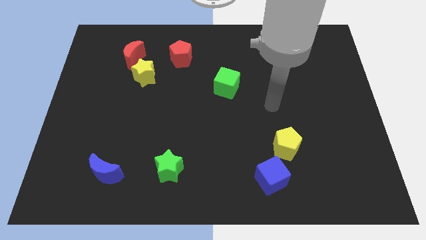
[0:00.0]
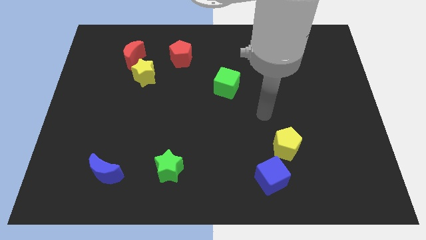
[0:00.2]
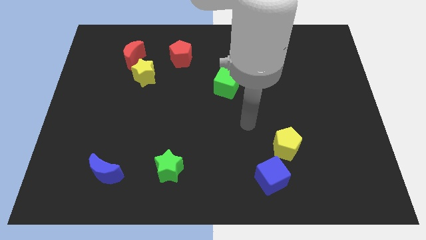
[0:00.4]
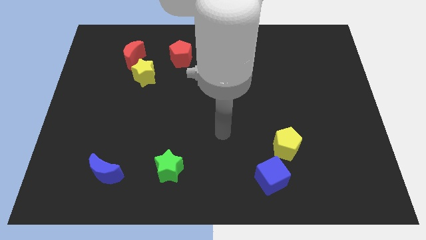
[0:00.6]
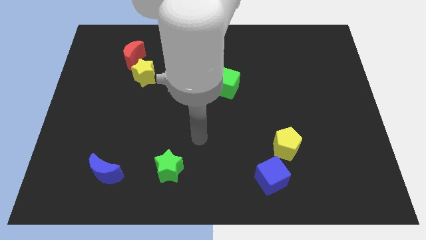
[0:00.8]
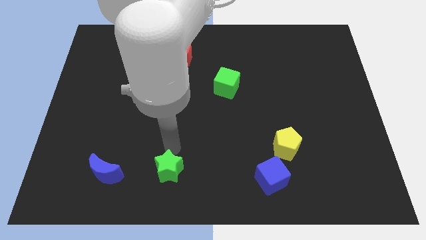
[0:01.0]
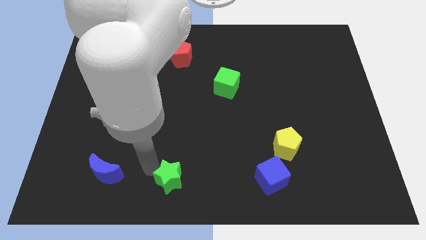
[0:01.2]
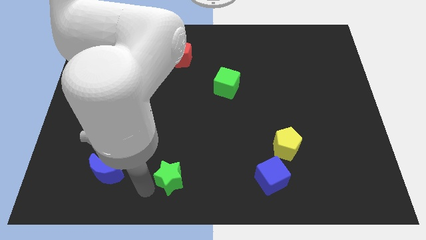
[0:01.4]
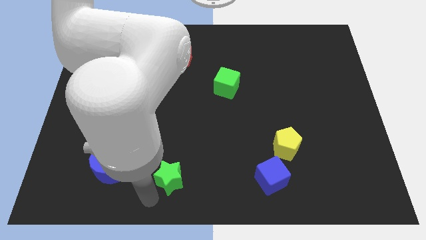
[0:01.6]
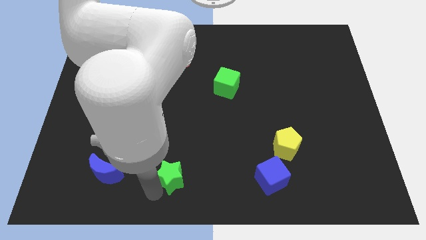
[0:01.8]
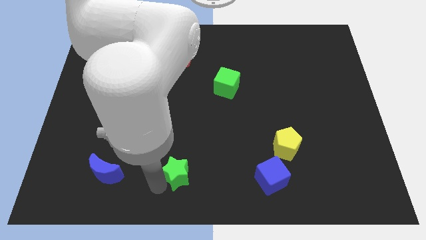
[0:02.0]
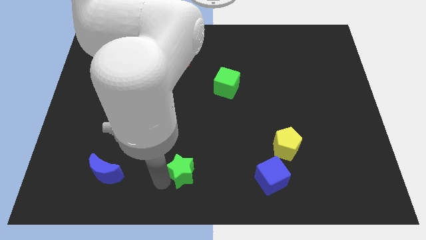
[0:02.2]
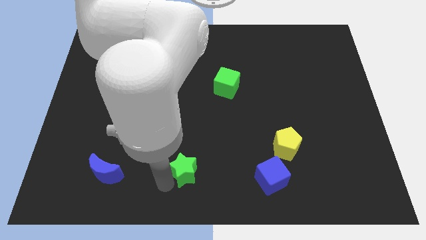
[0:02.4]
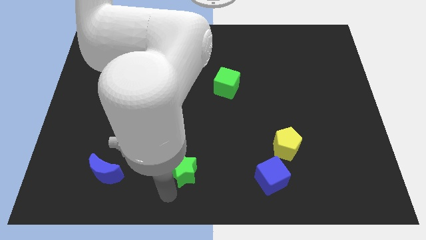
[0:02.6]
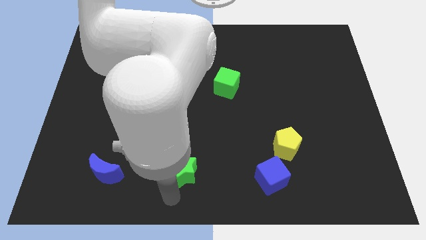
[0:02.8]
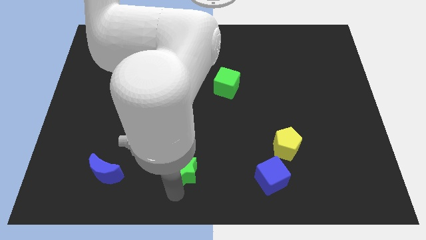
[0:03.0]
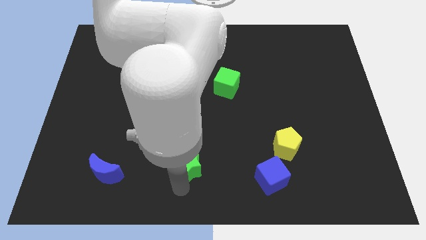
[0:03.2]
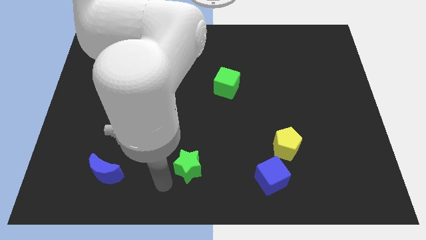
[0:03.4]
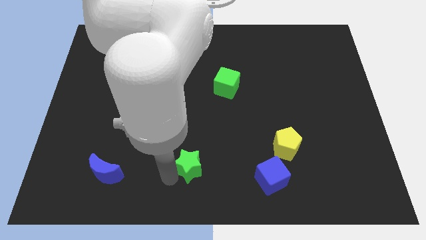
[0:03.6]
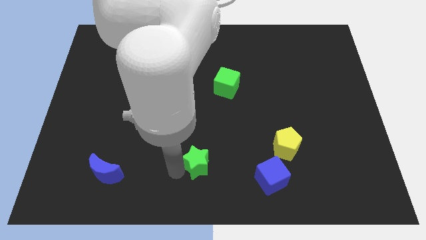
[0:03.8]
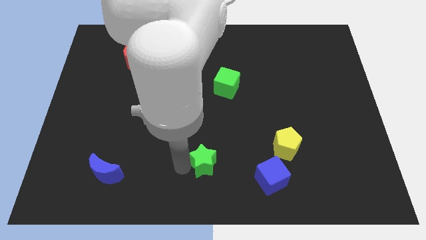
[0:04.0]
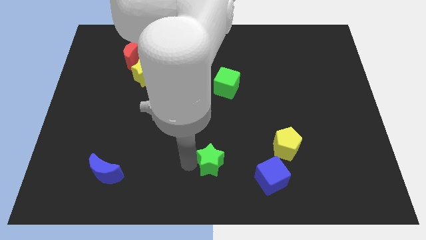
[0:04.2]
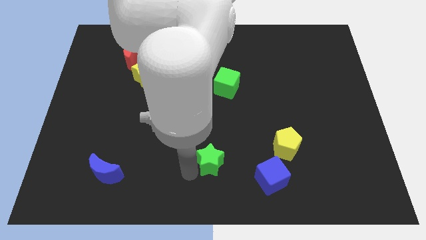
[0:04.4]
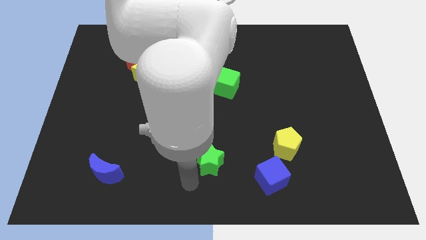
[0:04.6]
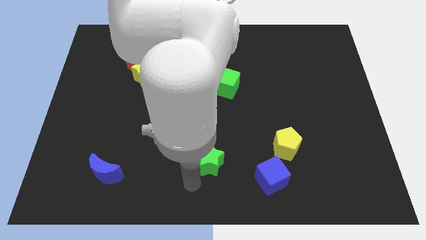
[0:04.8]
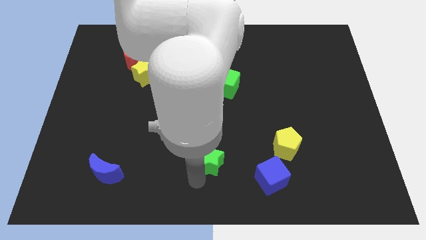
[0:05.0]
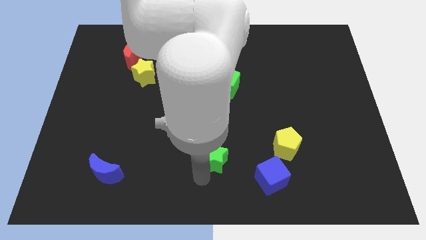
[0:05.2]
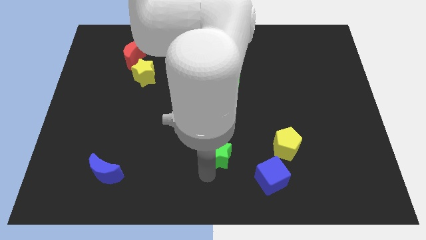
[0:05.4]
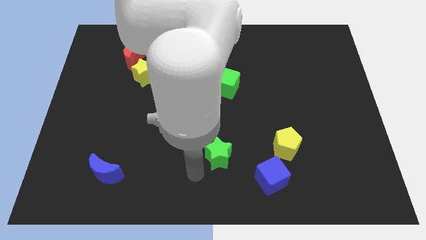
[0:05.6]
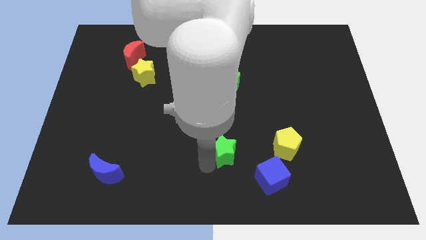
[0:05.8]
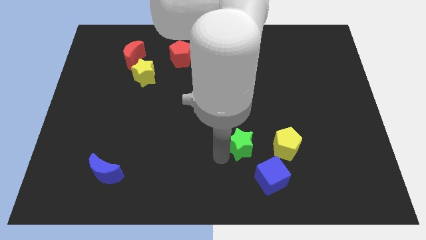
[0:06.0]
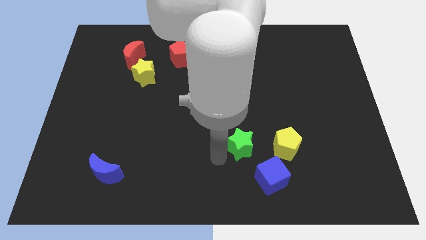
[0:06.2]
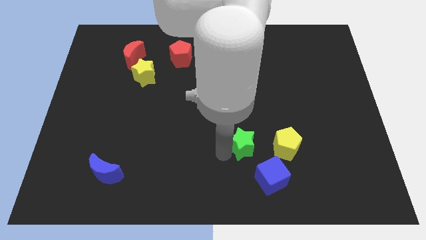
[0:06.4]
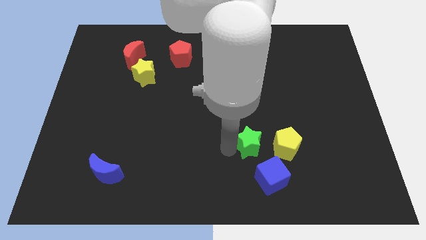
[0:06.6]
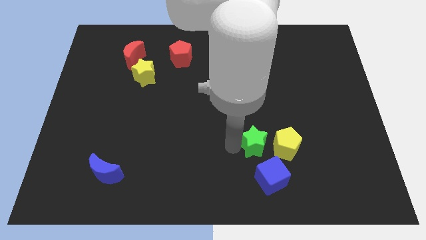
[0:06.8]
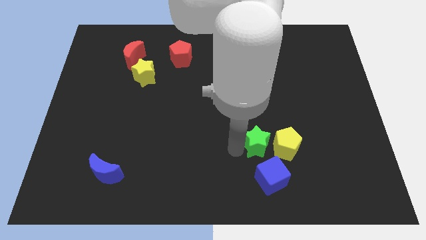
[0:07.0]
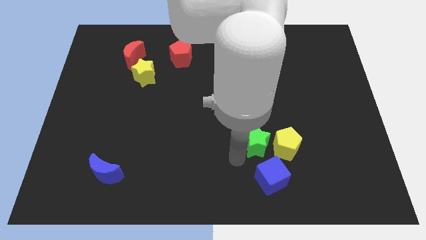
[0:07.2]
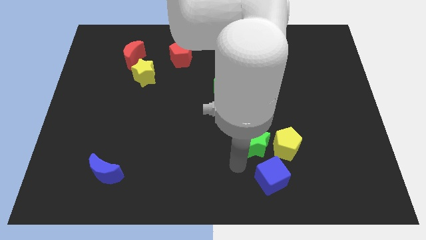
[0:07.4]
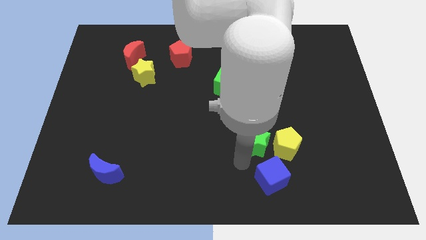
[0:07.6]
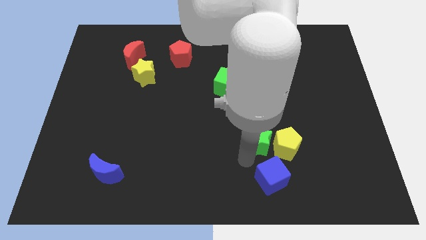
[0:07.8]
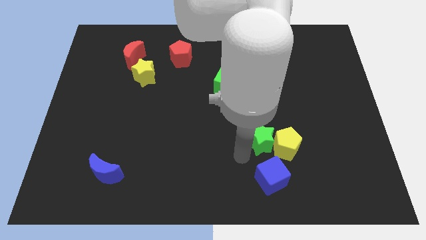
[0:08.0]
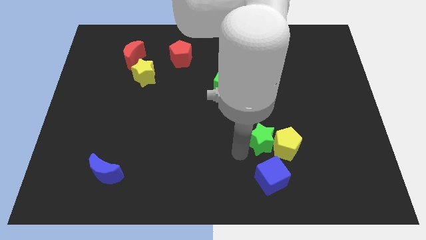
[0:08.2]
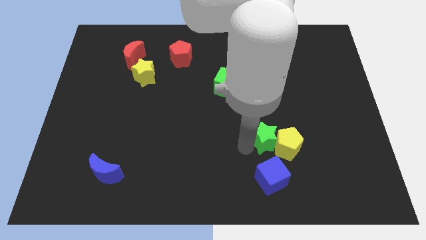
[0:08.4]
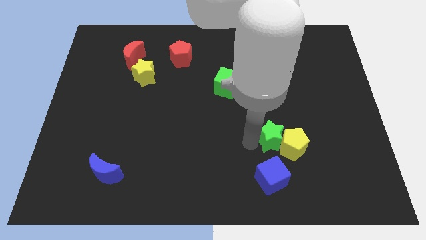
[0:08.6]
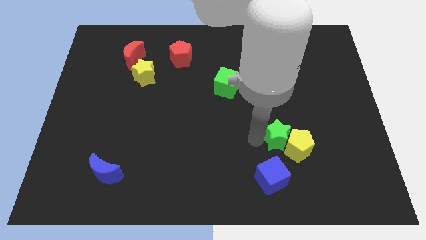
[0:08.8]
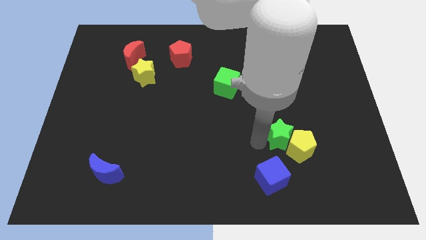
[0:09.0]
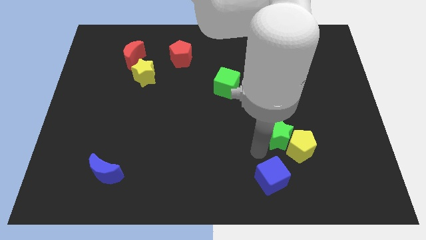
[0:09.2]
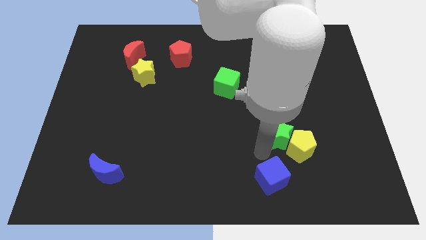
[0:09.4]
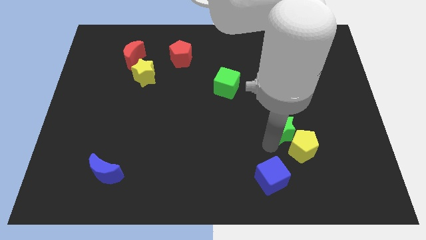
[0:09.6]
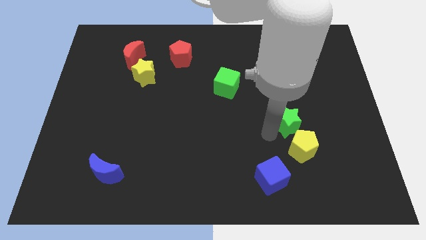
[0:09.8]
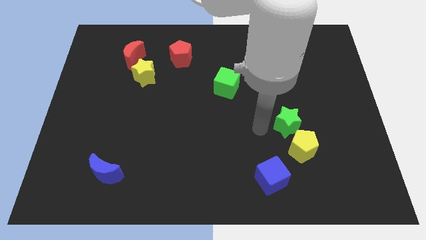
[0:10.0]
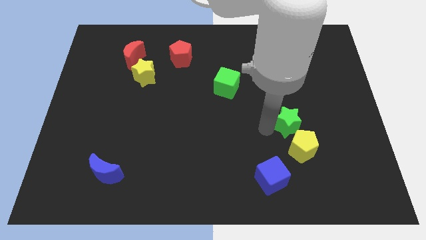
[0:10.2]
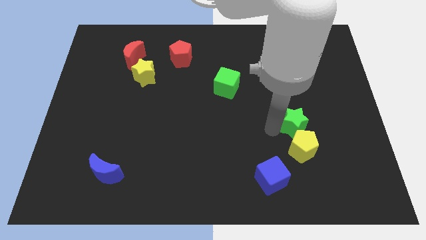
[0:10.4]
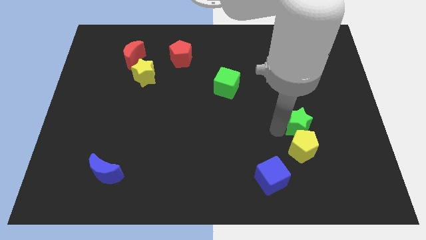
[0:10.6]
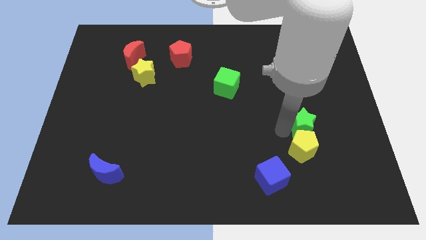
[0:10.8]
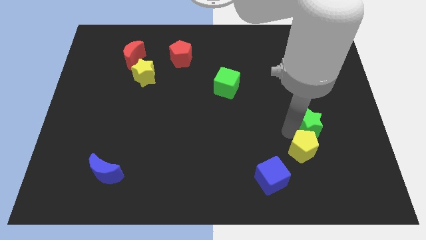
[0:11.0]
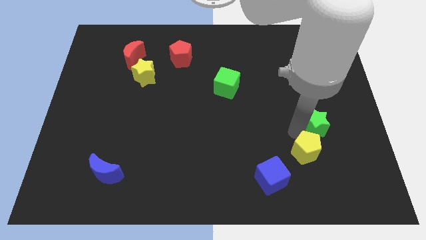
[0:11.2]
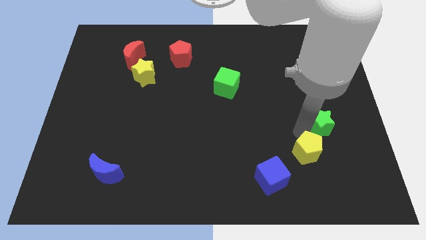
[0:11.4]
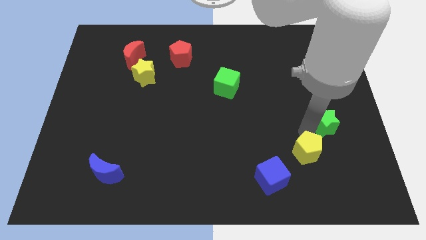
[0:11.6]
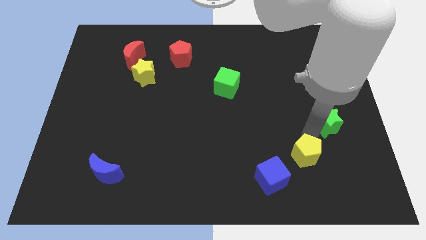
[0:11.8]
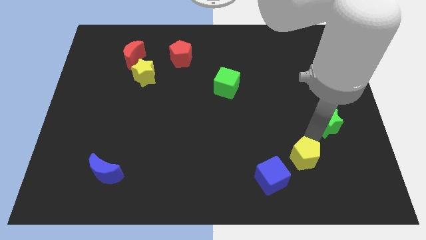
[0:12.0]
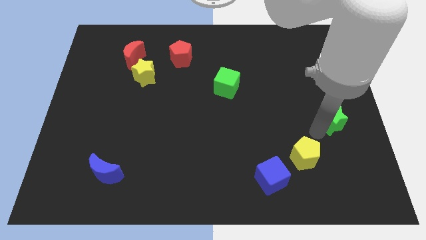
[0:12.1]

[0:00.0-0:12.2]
move the green star to the center right

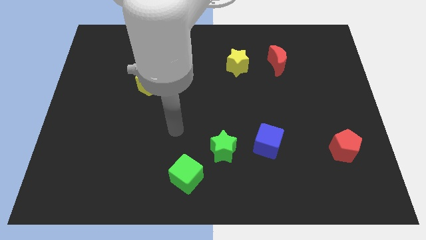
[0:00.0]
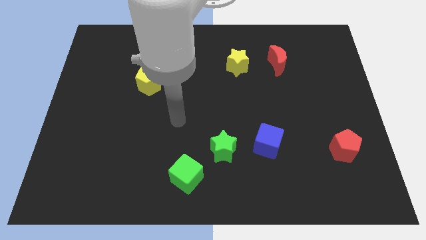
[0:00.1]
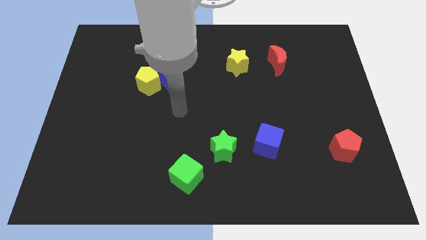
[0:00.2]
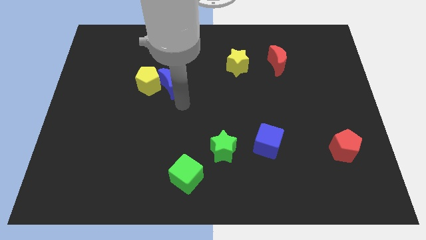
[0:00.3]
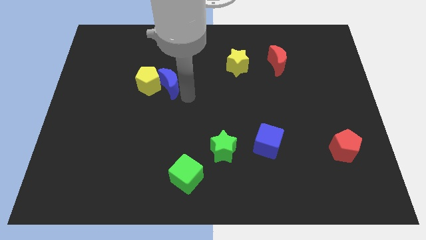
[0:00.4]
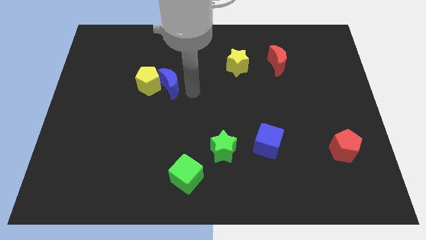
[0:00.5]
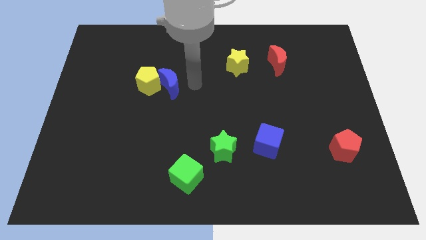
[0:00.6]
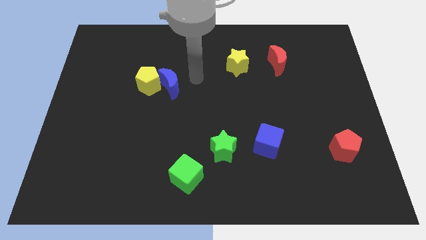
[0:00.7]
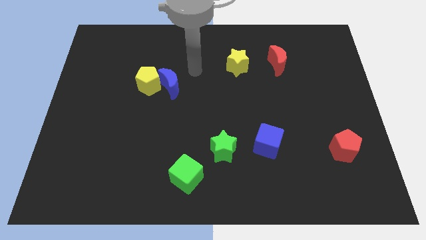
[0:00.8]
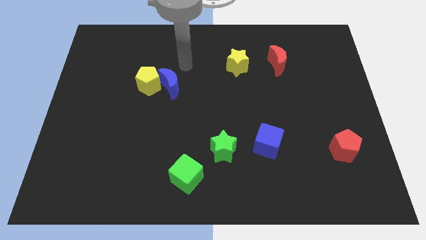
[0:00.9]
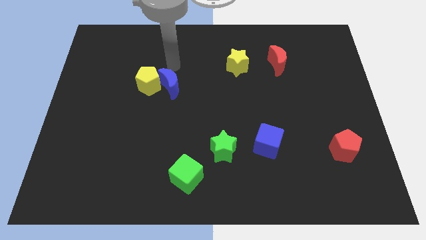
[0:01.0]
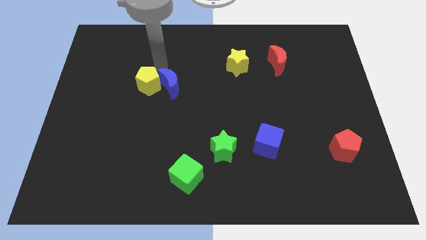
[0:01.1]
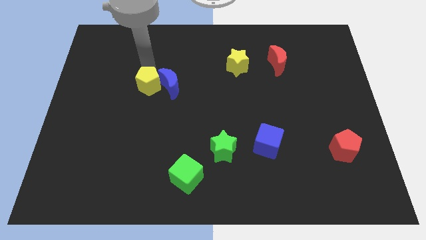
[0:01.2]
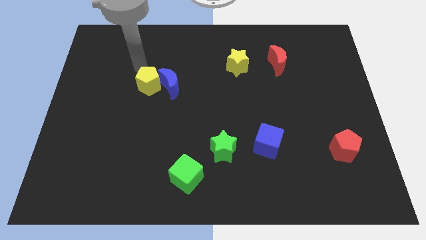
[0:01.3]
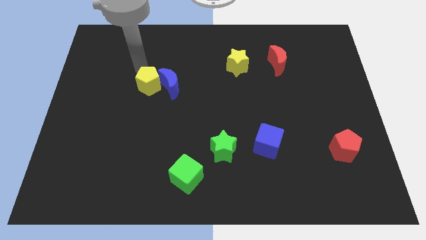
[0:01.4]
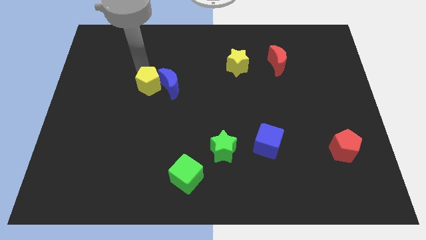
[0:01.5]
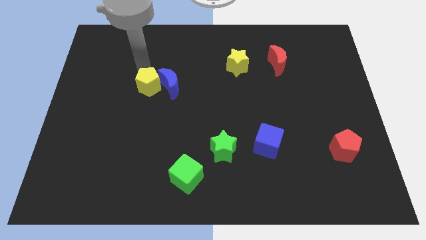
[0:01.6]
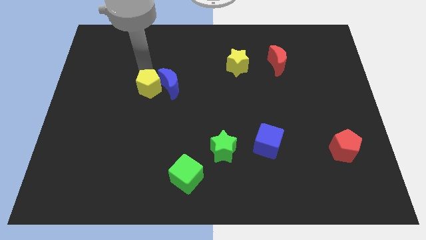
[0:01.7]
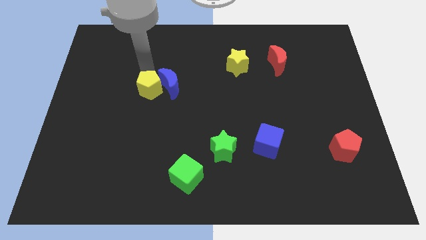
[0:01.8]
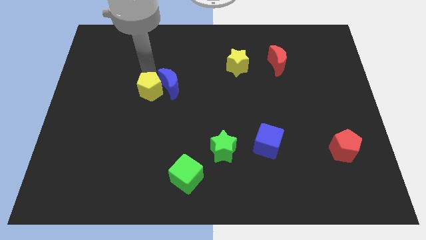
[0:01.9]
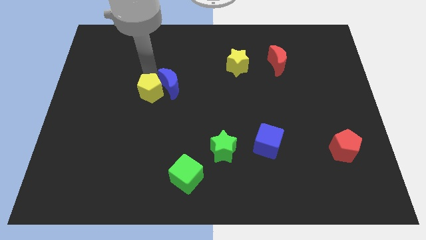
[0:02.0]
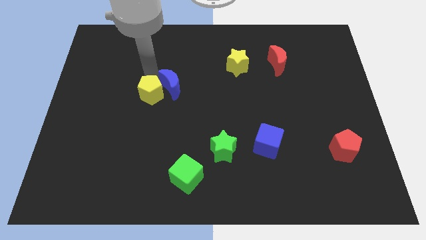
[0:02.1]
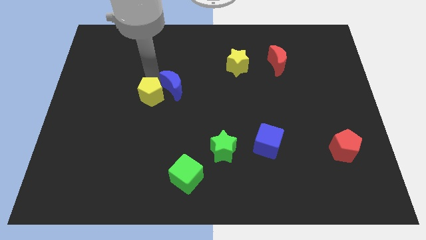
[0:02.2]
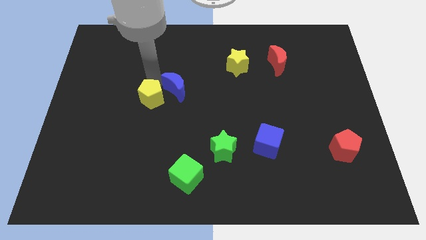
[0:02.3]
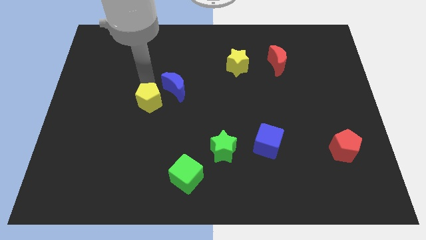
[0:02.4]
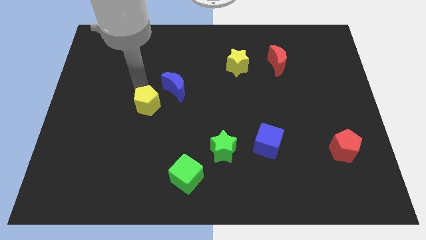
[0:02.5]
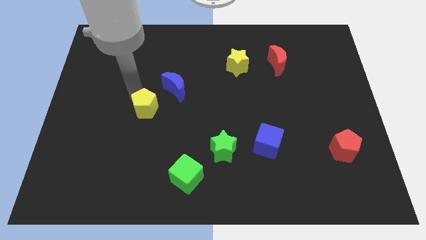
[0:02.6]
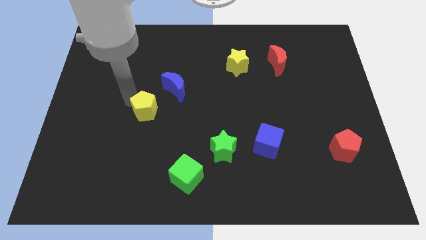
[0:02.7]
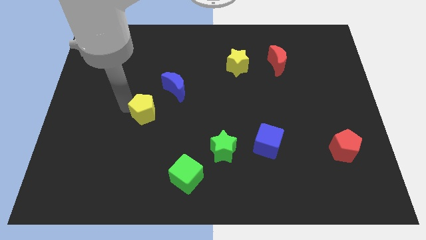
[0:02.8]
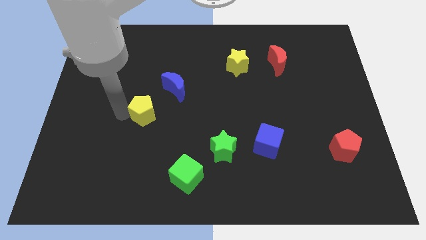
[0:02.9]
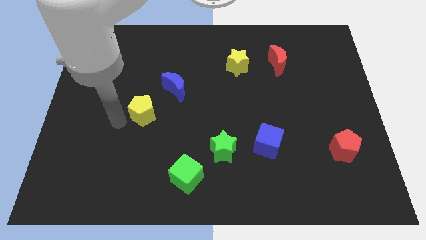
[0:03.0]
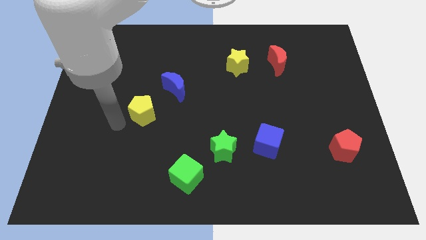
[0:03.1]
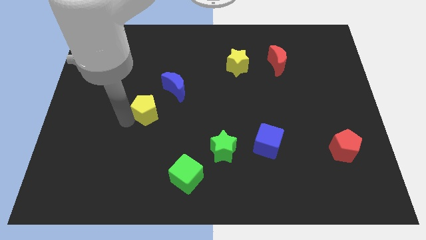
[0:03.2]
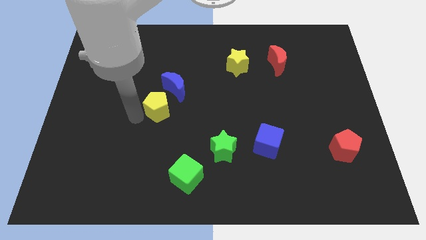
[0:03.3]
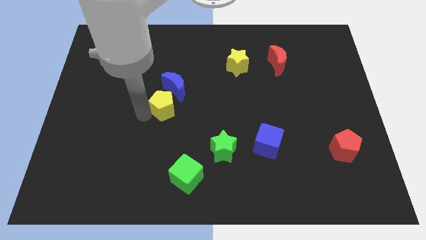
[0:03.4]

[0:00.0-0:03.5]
move the yellow pentagon to the middle
